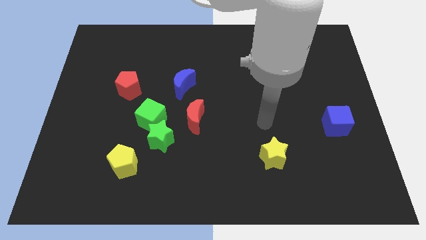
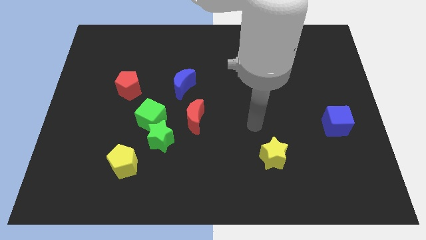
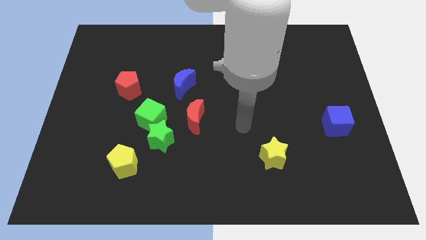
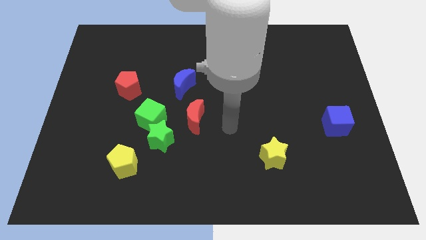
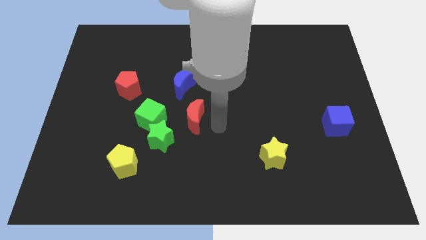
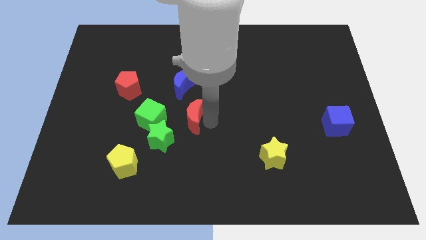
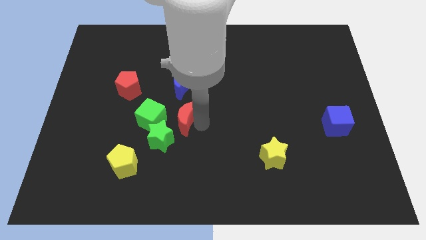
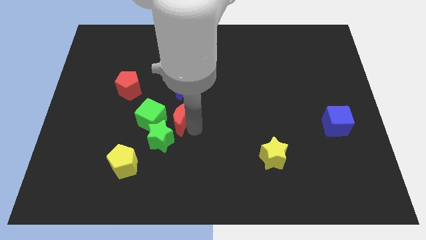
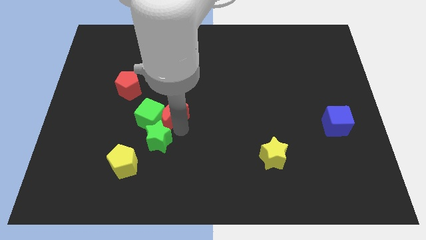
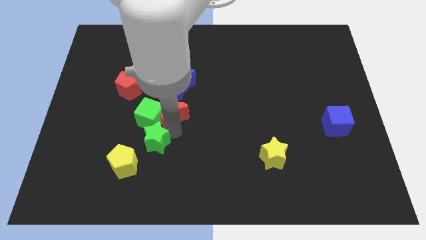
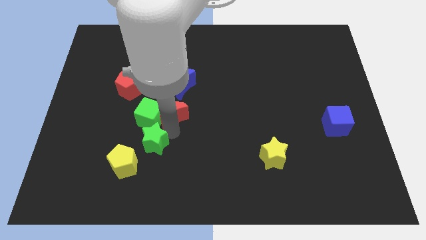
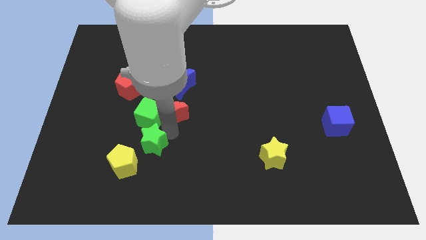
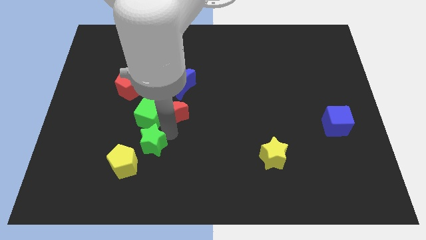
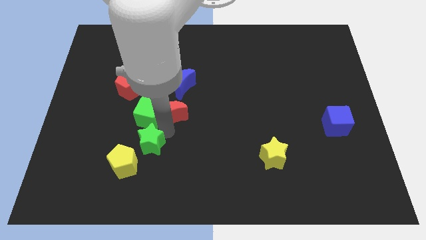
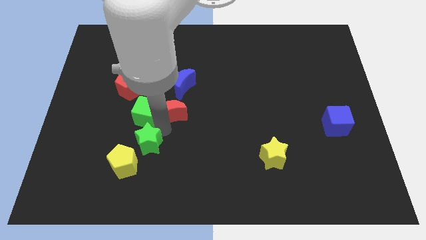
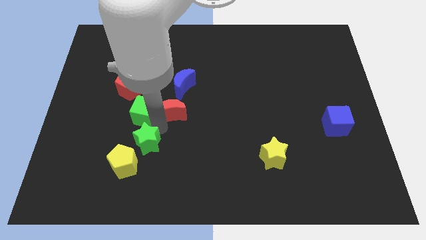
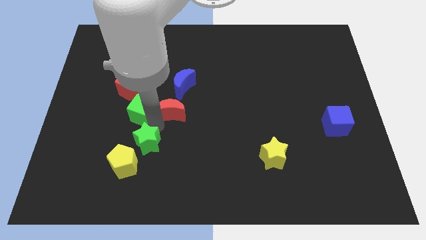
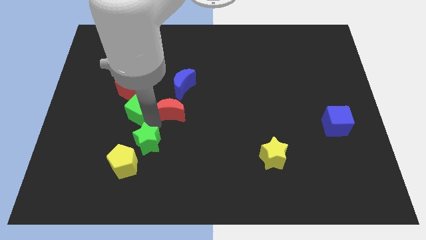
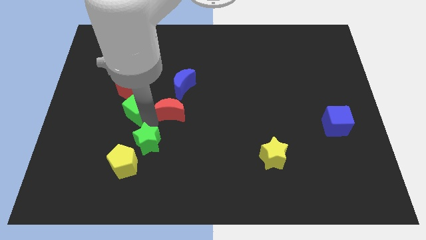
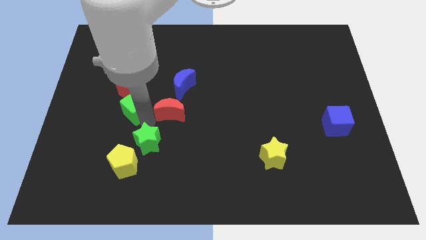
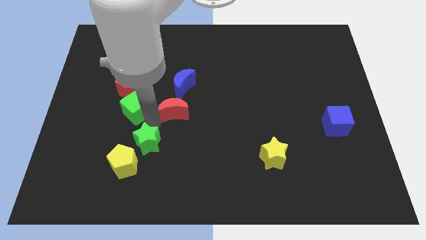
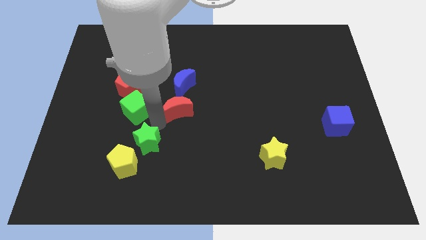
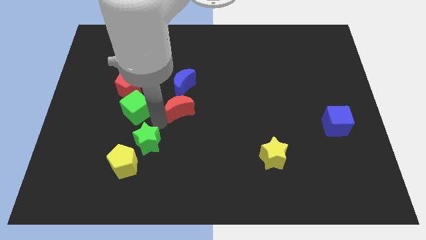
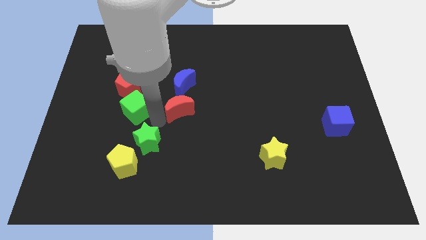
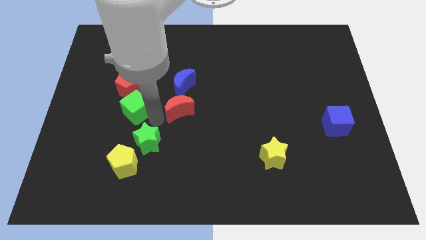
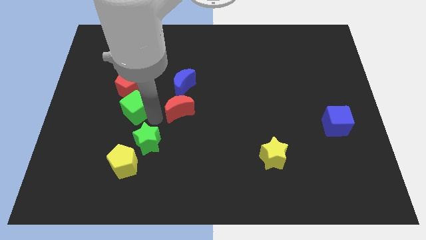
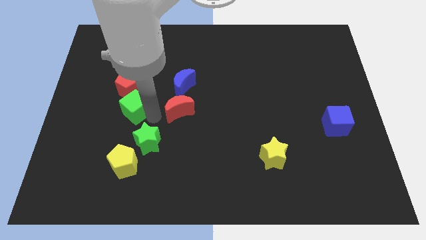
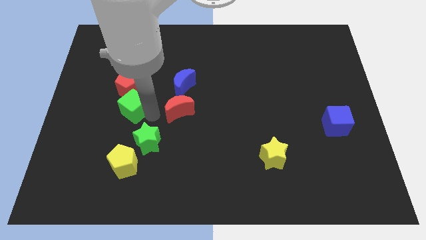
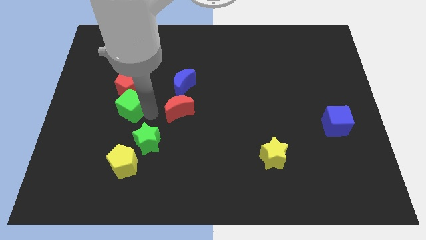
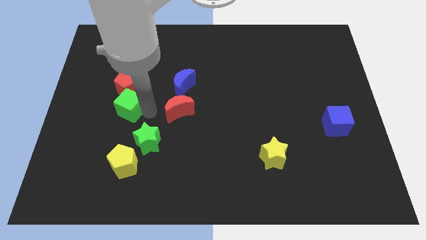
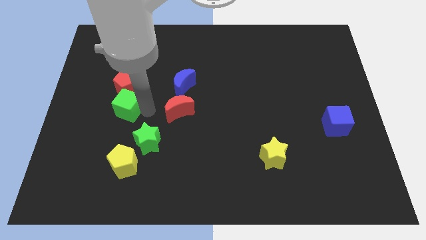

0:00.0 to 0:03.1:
pull the green cube apart from the green star and red moon

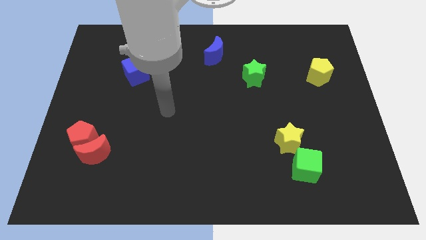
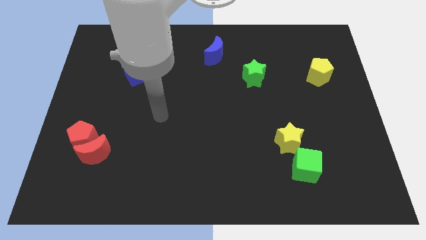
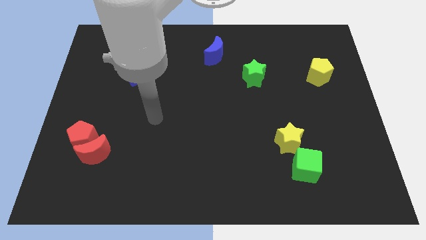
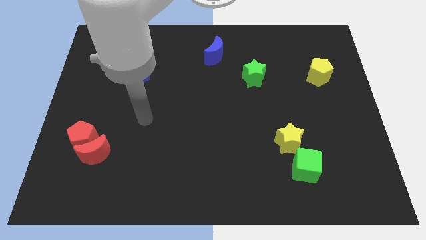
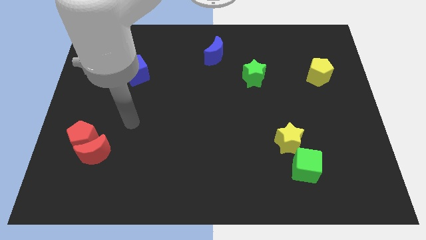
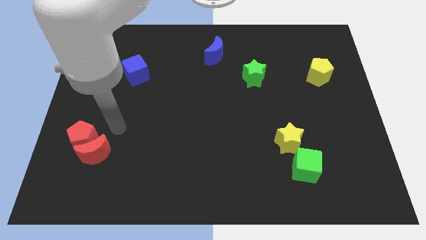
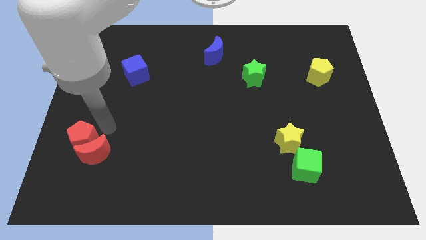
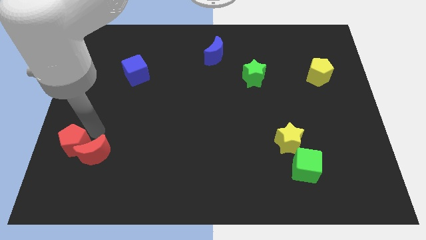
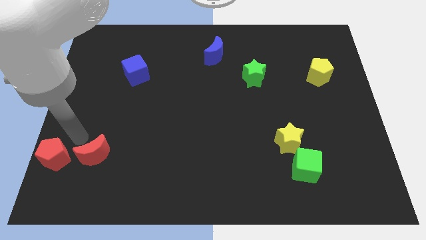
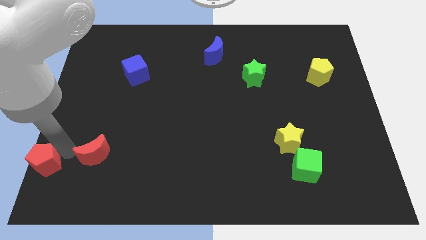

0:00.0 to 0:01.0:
separate the red moon from the red pentagon

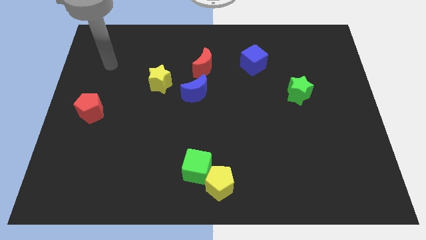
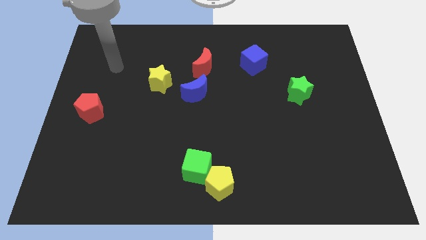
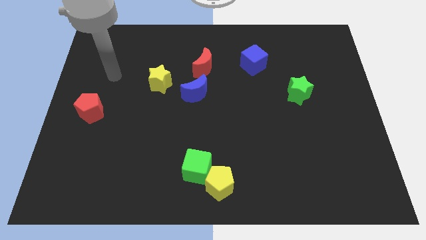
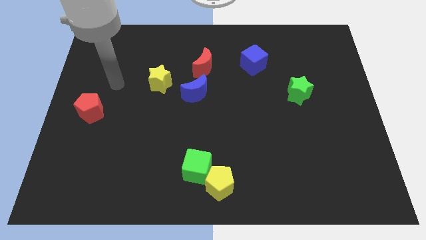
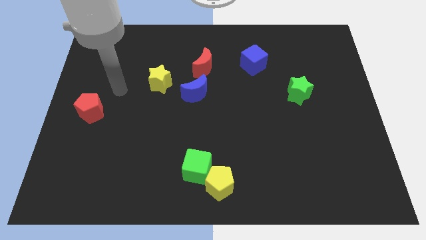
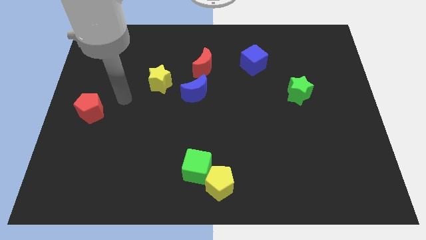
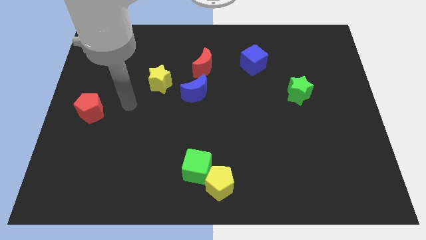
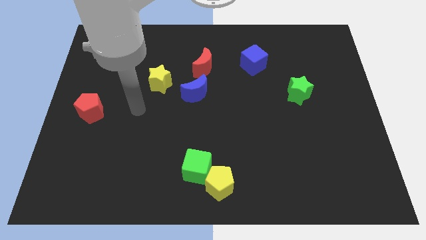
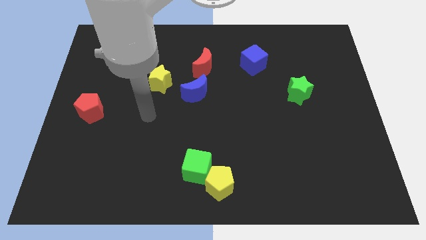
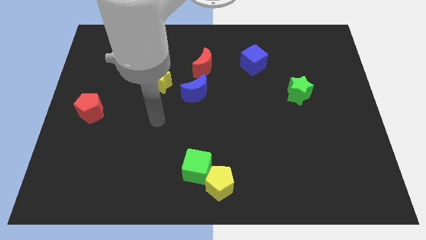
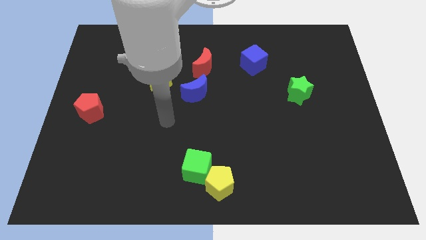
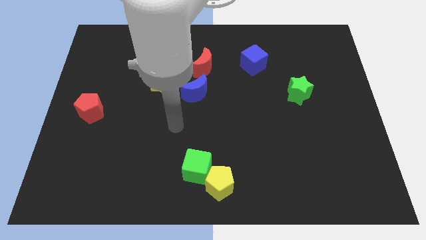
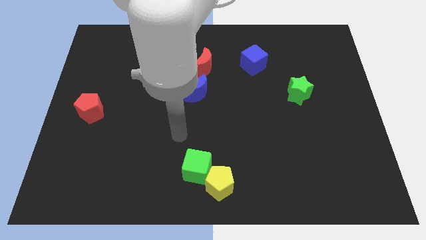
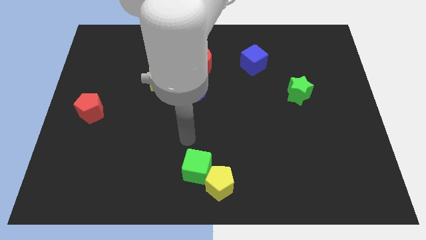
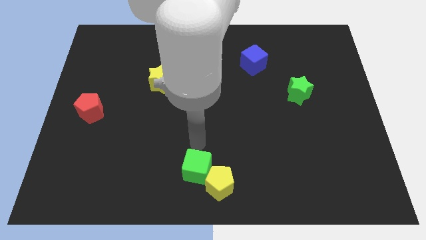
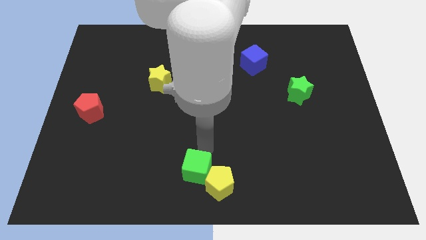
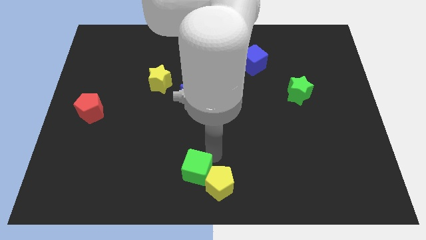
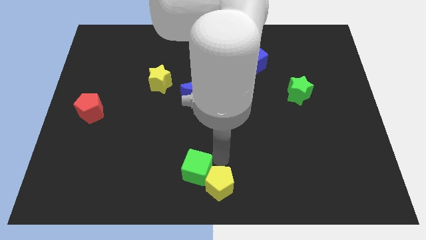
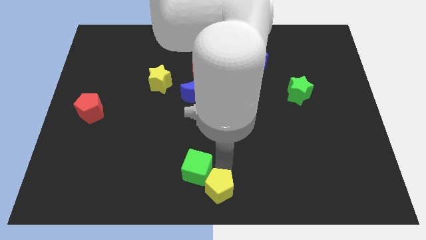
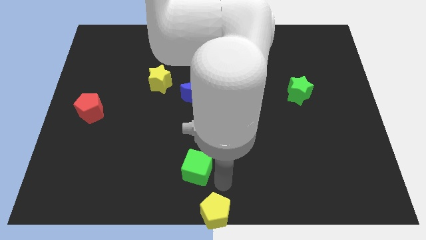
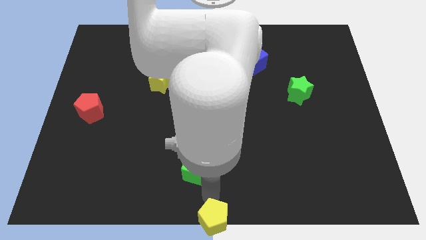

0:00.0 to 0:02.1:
move the green cube away from the yellow pentagon

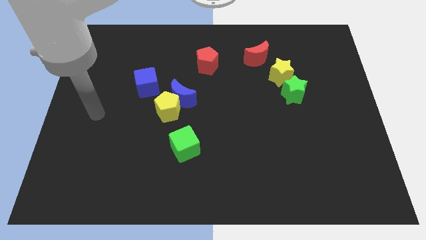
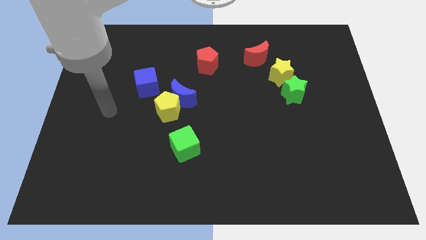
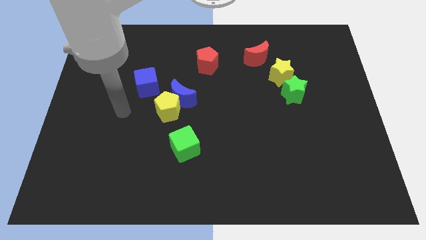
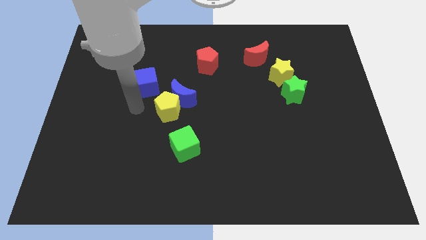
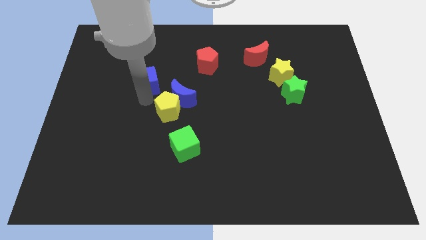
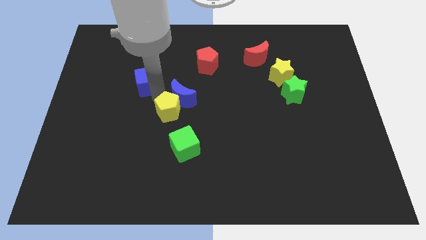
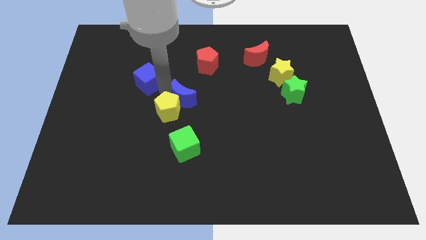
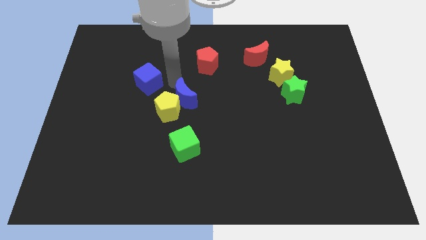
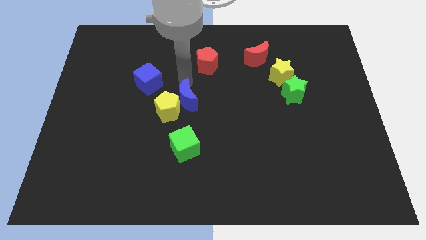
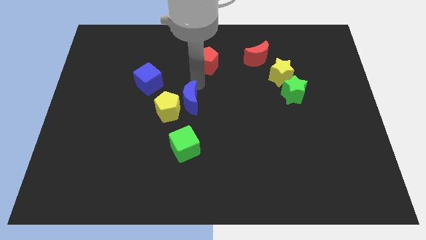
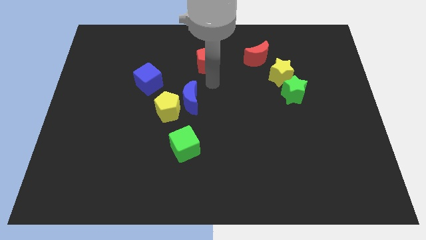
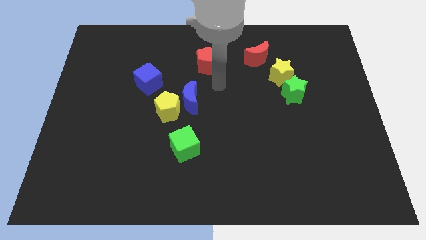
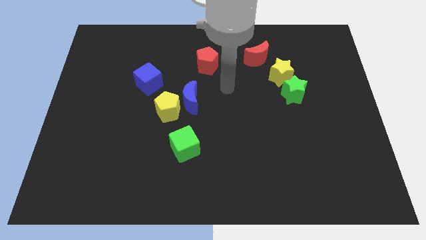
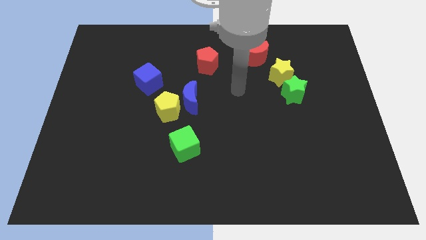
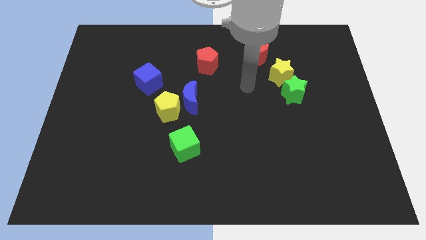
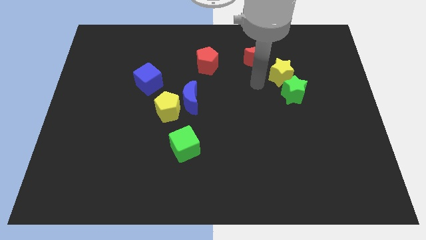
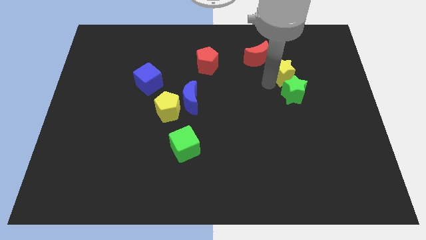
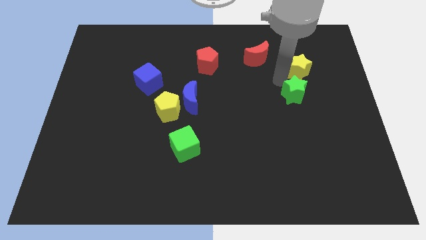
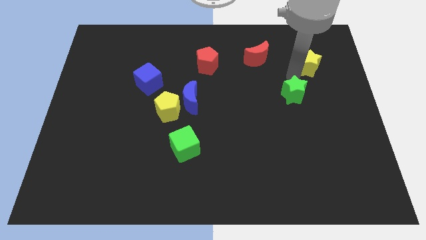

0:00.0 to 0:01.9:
separate the green star from the yellow star

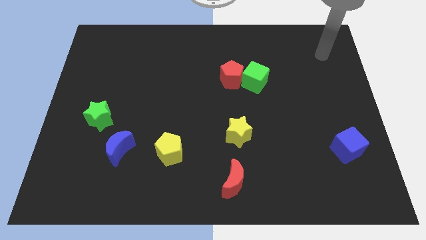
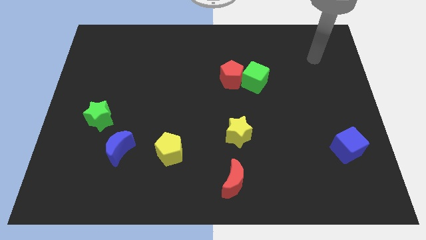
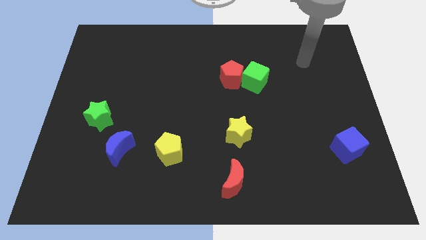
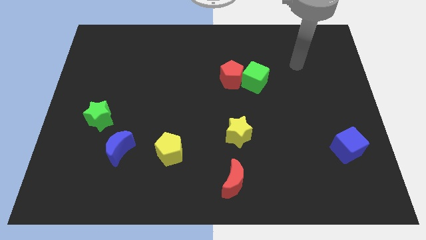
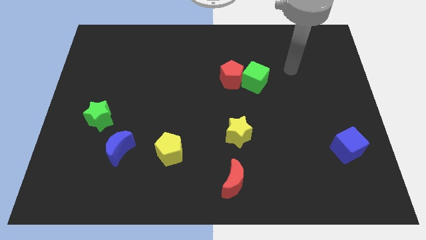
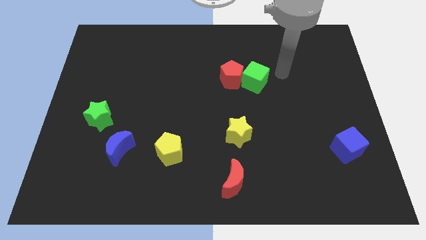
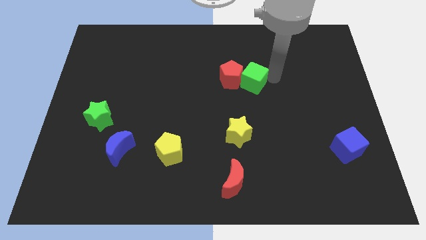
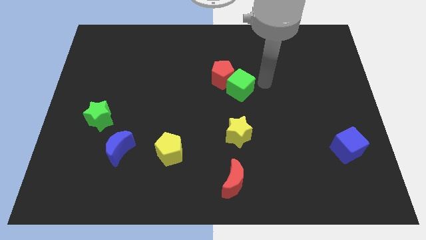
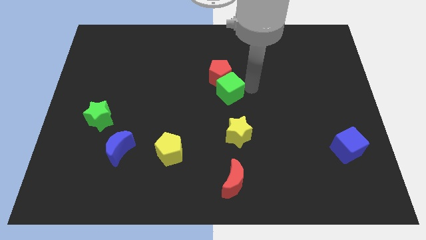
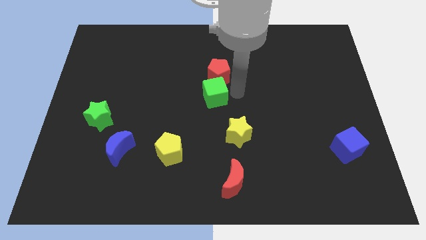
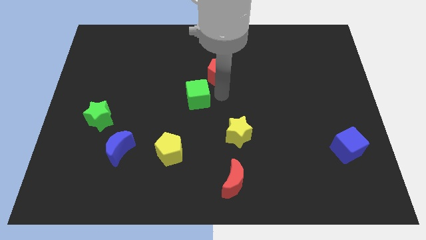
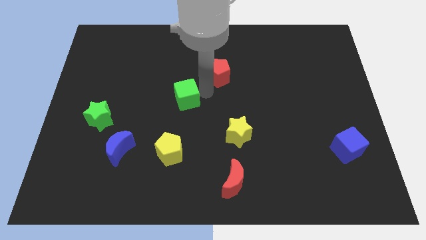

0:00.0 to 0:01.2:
separate the red pentagon from the green cube
